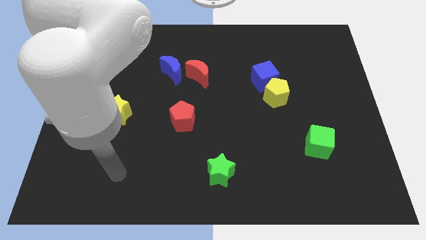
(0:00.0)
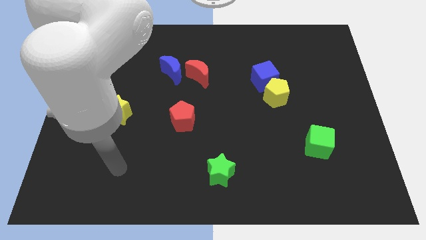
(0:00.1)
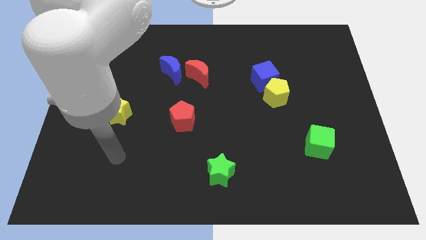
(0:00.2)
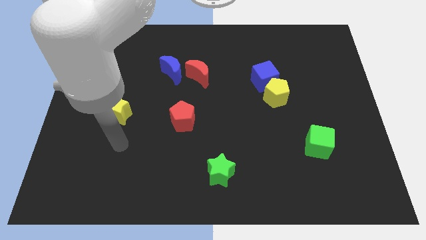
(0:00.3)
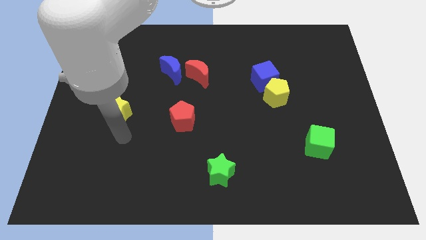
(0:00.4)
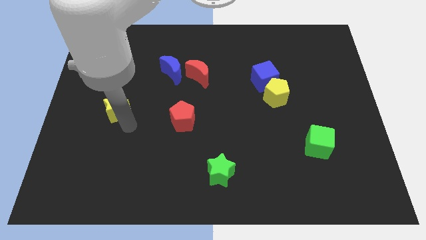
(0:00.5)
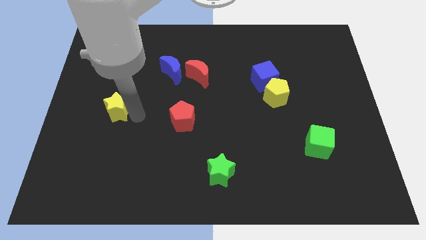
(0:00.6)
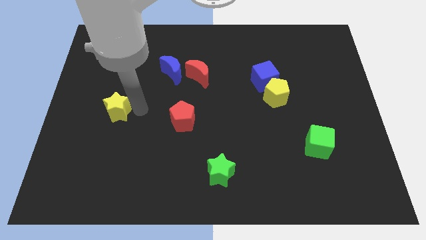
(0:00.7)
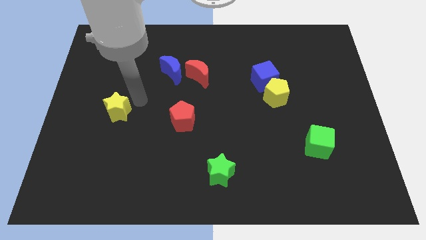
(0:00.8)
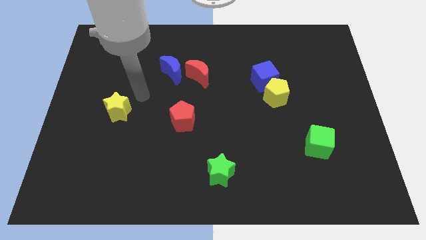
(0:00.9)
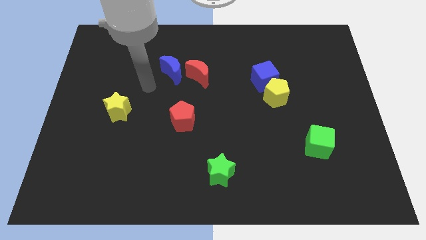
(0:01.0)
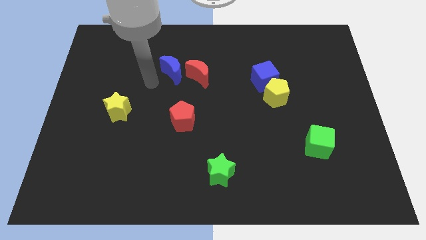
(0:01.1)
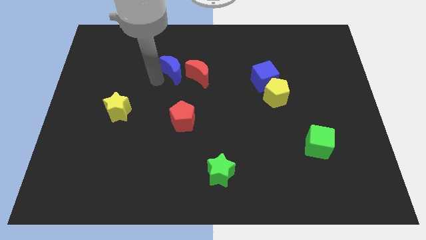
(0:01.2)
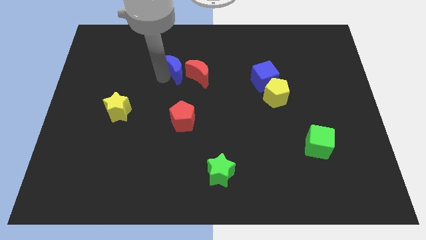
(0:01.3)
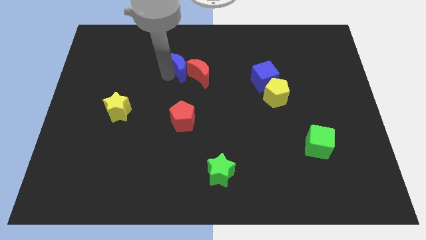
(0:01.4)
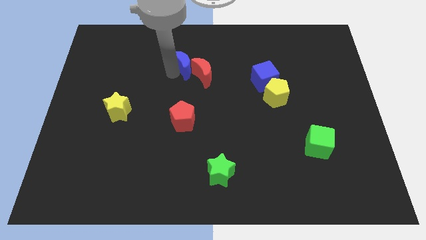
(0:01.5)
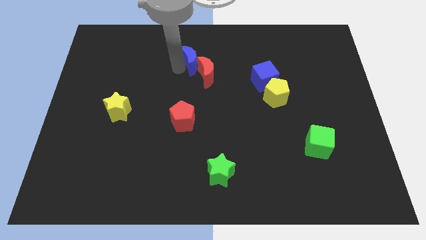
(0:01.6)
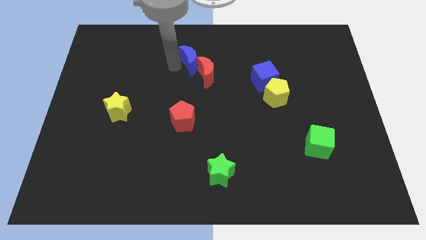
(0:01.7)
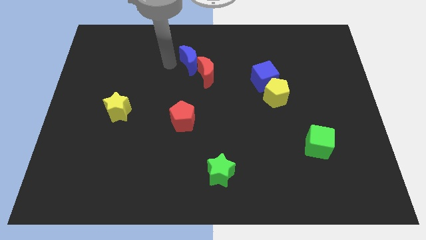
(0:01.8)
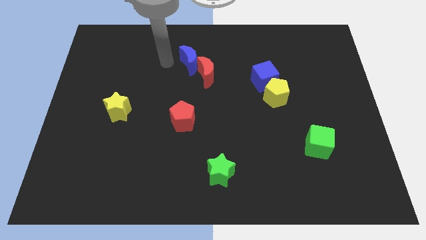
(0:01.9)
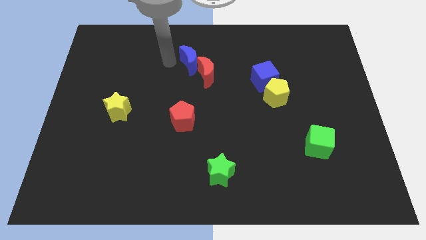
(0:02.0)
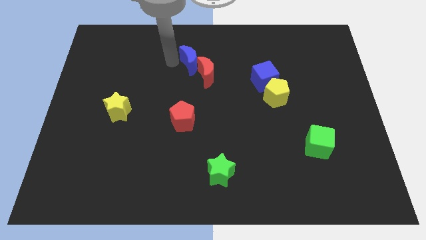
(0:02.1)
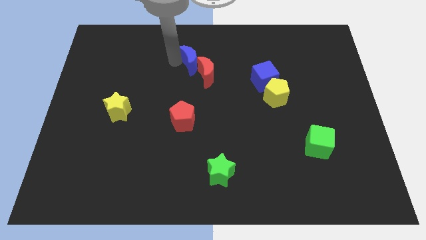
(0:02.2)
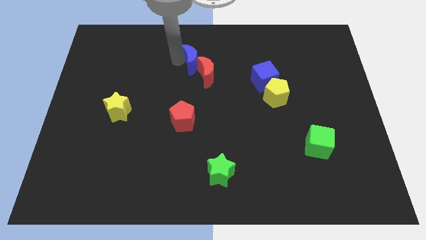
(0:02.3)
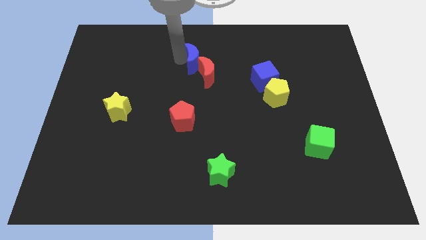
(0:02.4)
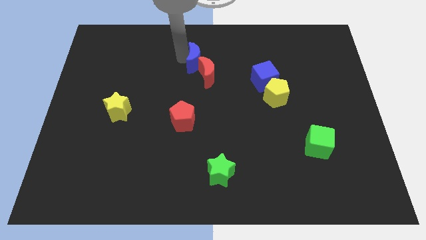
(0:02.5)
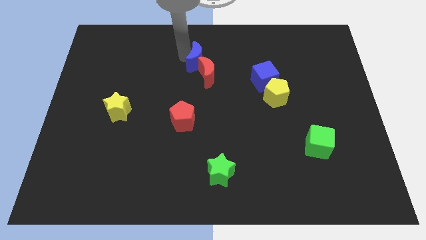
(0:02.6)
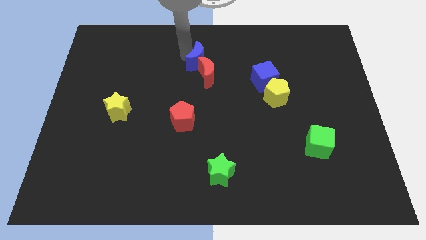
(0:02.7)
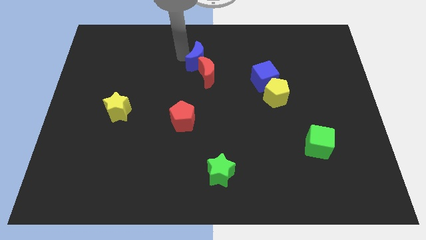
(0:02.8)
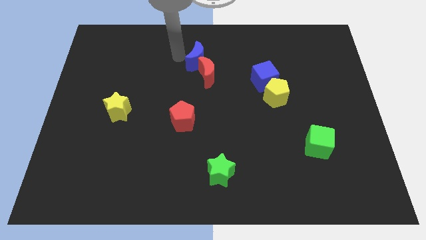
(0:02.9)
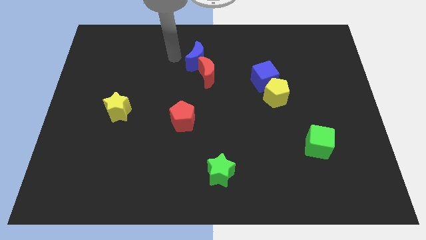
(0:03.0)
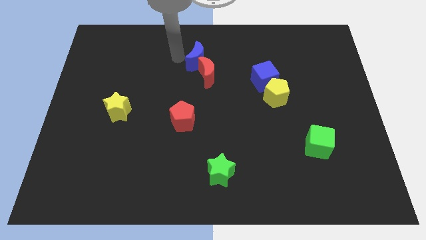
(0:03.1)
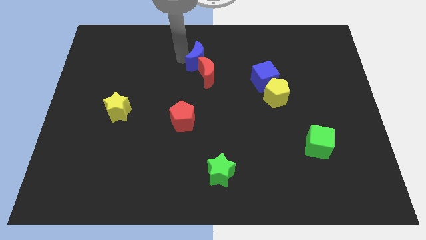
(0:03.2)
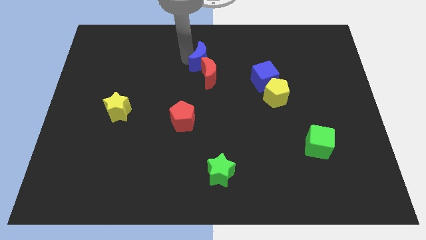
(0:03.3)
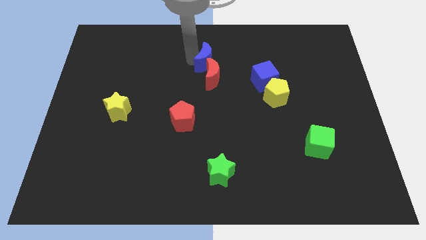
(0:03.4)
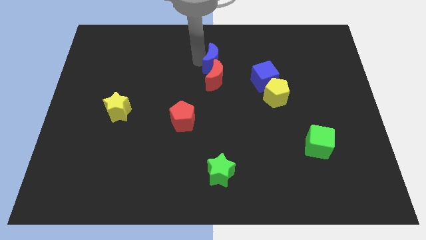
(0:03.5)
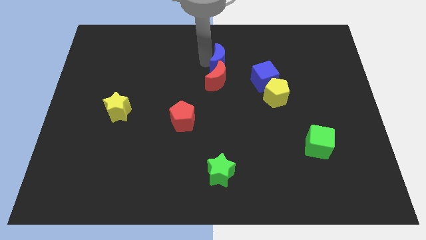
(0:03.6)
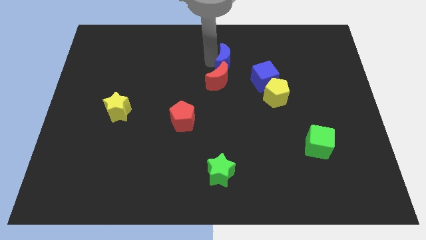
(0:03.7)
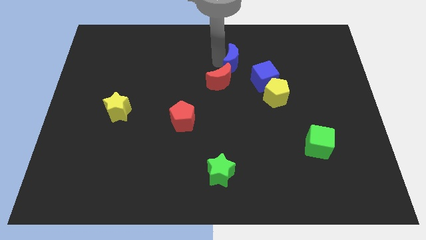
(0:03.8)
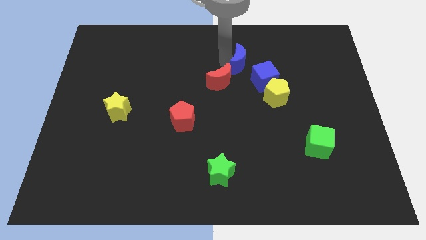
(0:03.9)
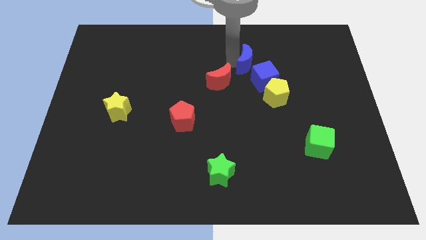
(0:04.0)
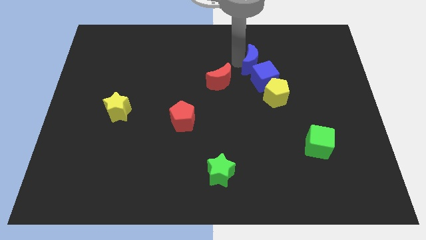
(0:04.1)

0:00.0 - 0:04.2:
move the blue moon right

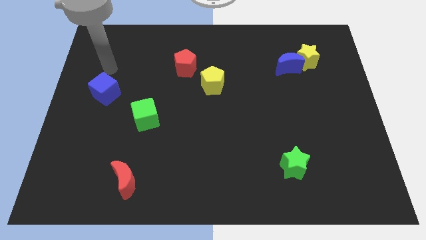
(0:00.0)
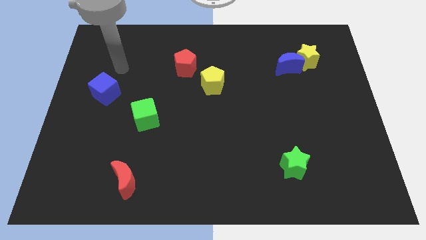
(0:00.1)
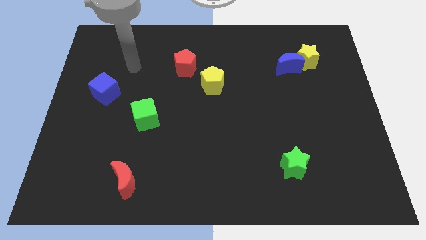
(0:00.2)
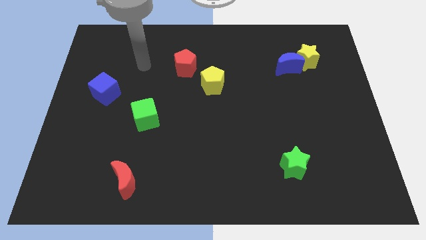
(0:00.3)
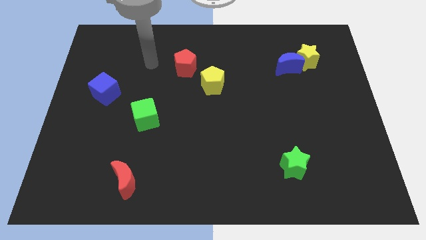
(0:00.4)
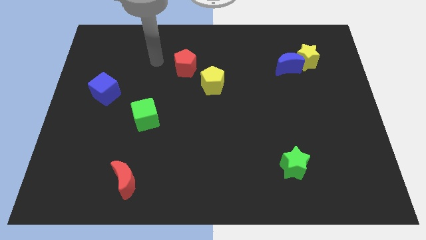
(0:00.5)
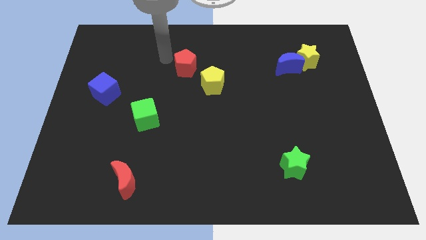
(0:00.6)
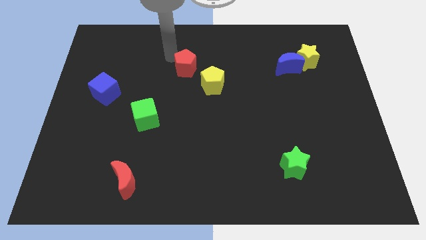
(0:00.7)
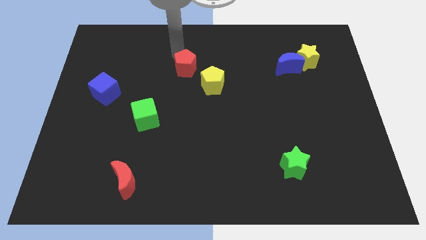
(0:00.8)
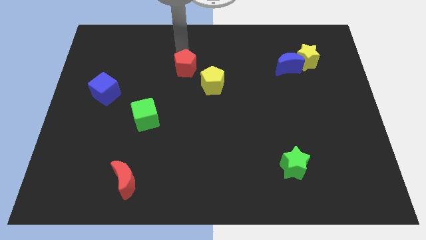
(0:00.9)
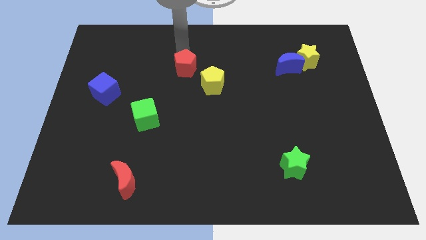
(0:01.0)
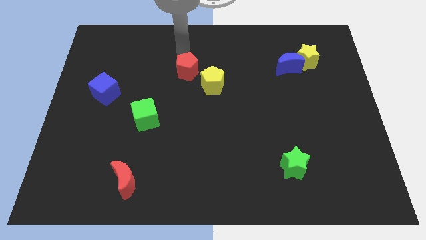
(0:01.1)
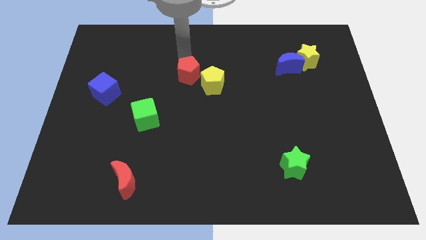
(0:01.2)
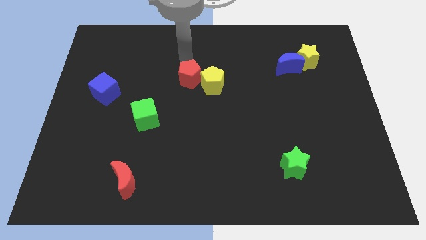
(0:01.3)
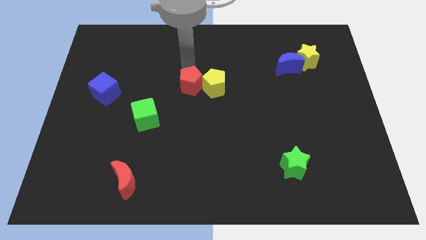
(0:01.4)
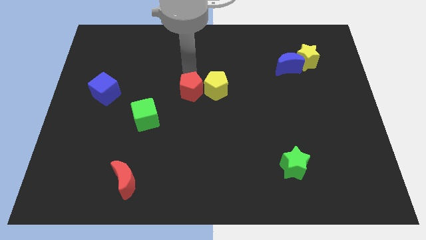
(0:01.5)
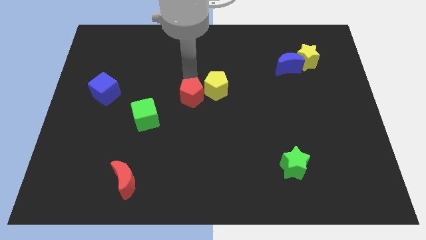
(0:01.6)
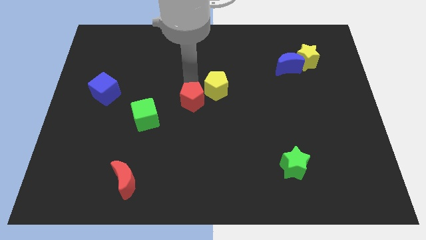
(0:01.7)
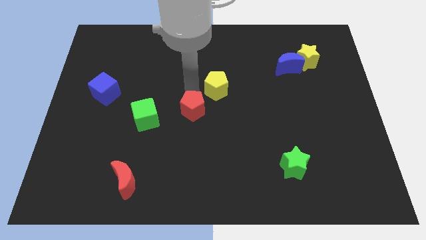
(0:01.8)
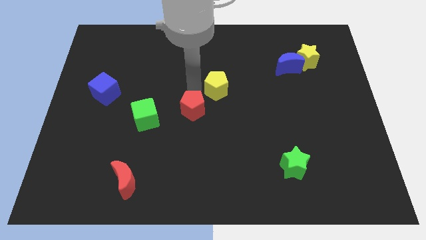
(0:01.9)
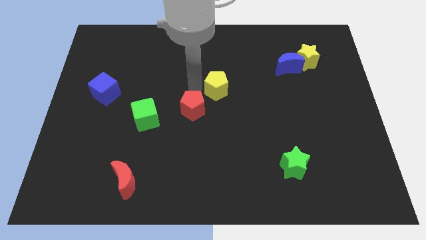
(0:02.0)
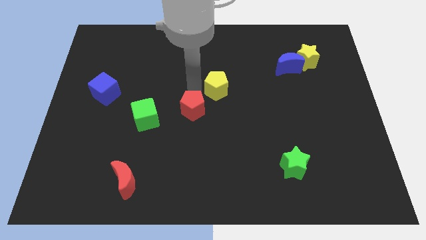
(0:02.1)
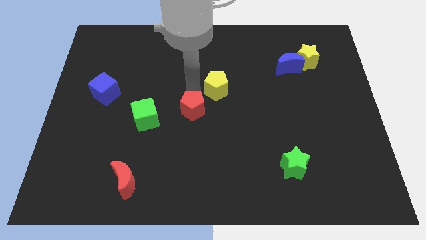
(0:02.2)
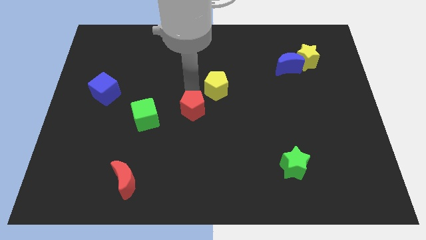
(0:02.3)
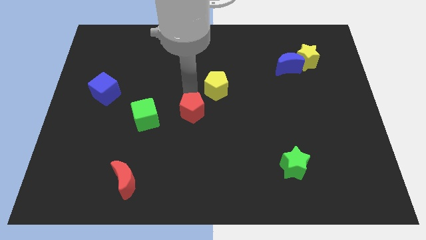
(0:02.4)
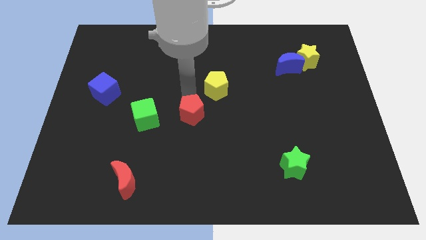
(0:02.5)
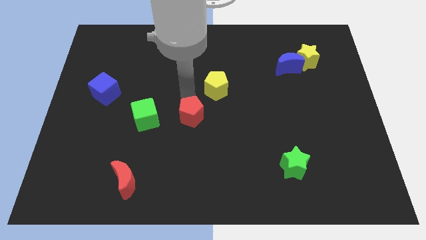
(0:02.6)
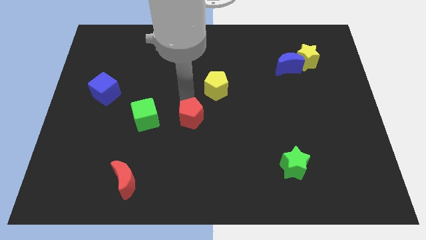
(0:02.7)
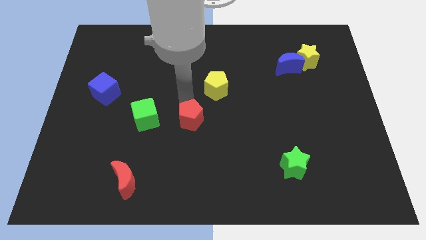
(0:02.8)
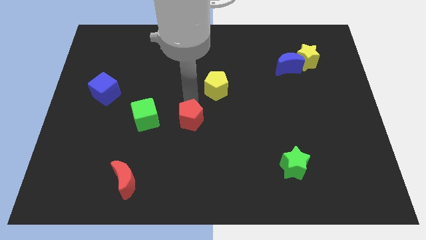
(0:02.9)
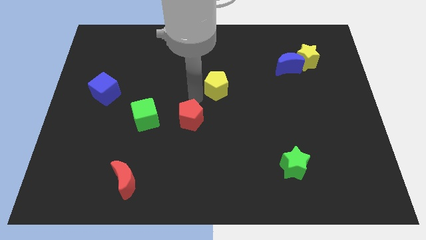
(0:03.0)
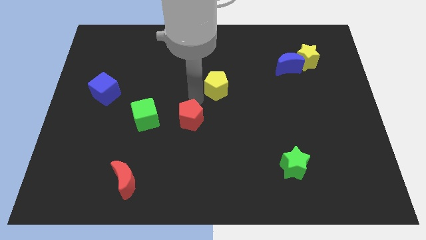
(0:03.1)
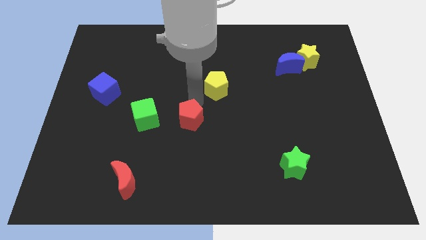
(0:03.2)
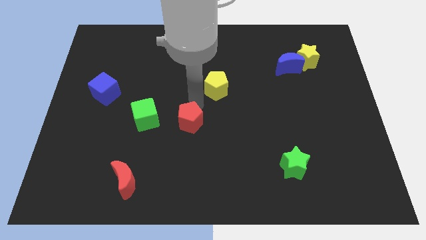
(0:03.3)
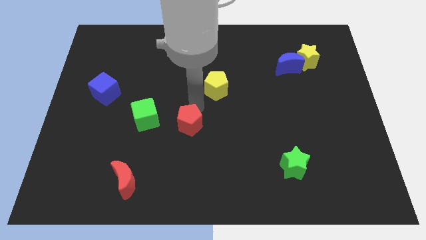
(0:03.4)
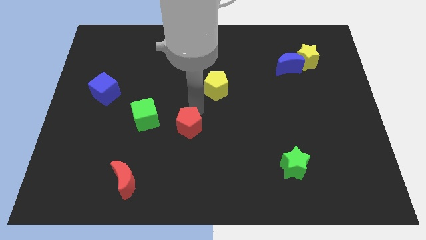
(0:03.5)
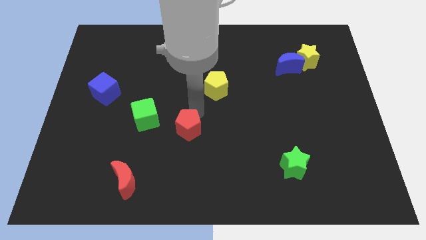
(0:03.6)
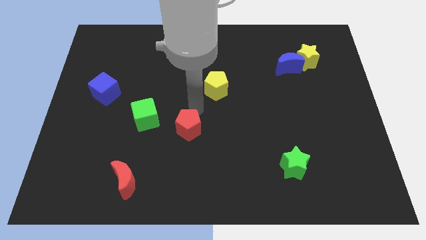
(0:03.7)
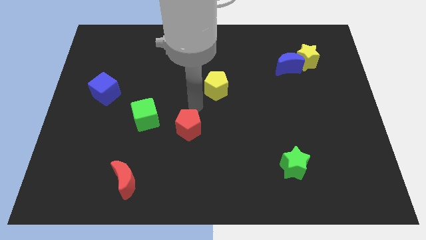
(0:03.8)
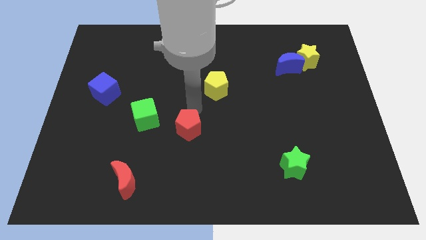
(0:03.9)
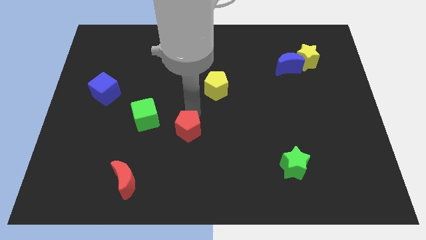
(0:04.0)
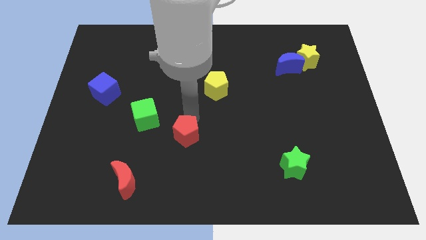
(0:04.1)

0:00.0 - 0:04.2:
push the red pentagon down
